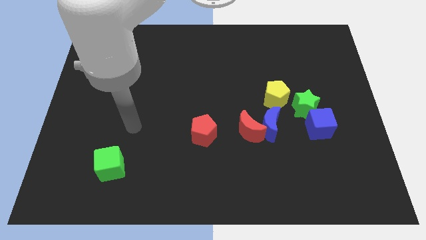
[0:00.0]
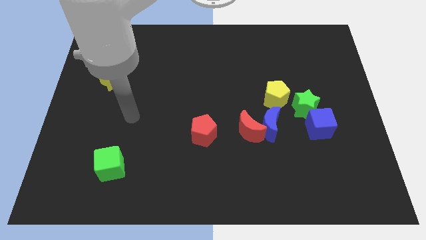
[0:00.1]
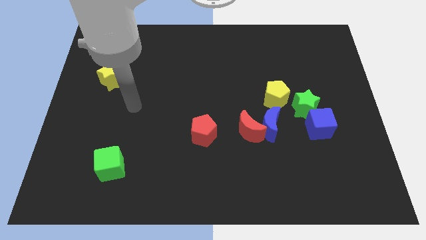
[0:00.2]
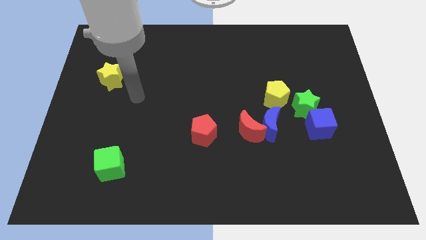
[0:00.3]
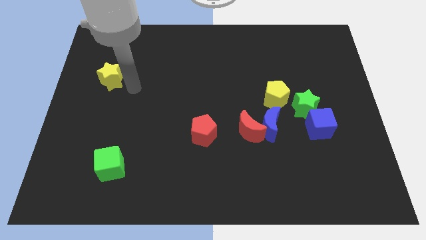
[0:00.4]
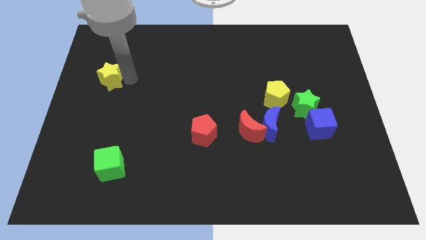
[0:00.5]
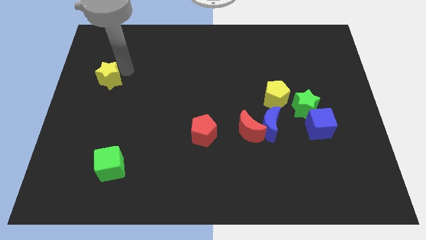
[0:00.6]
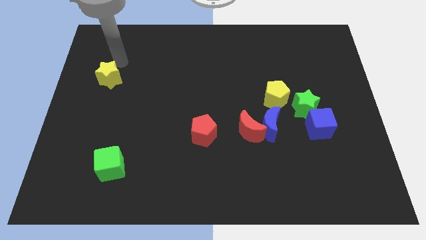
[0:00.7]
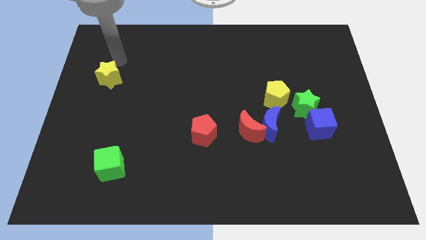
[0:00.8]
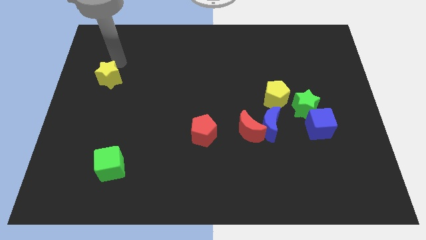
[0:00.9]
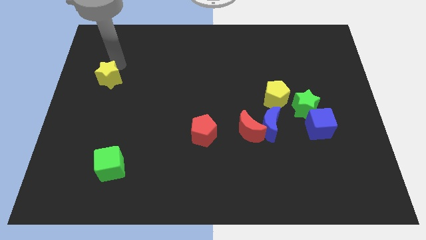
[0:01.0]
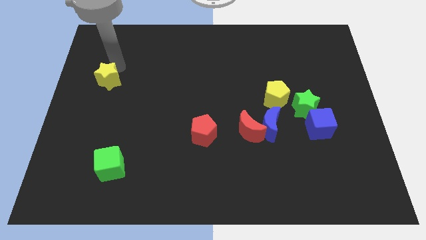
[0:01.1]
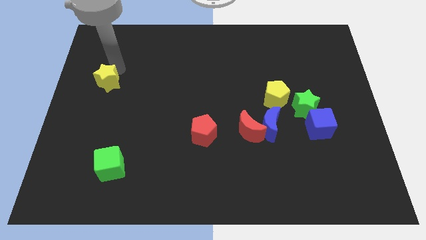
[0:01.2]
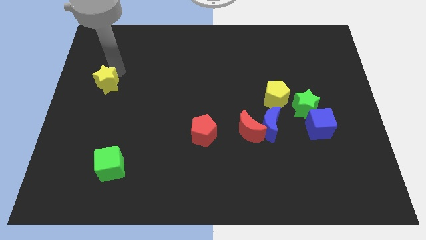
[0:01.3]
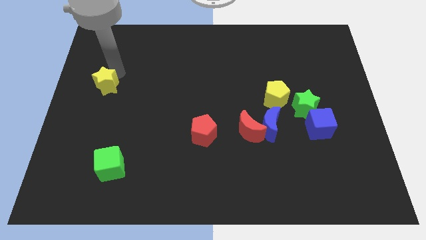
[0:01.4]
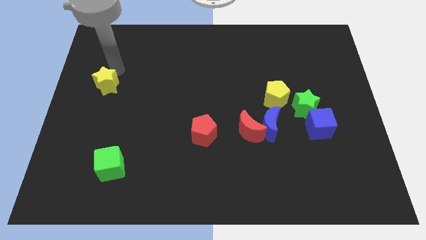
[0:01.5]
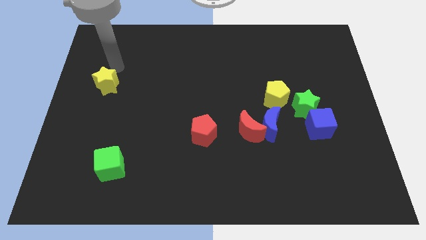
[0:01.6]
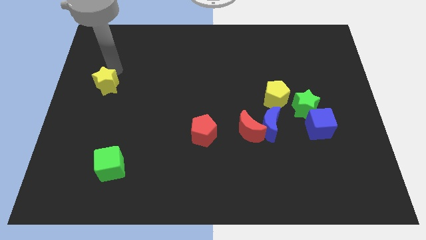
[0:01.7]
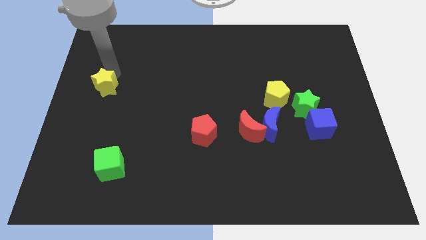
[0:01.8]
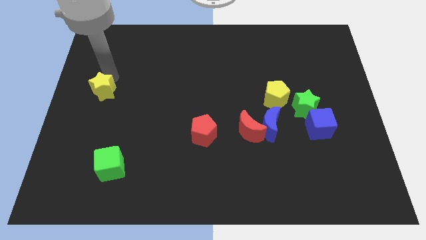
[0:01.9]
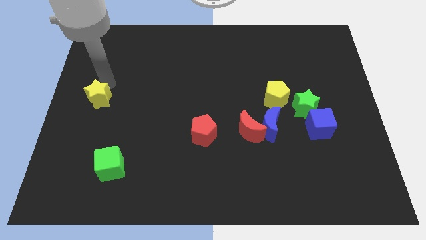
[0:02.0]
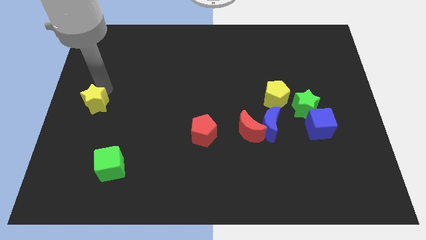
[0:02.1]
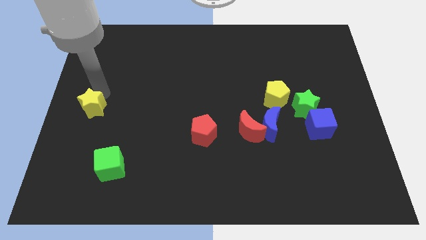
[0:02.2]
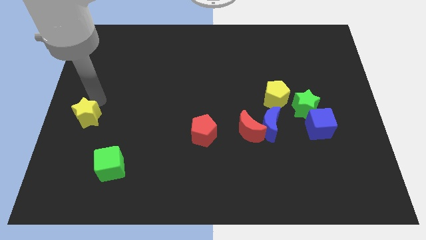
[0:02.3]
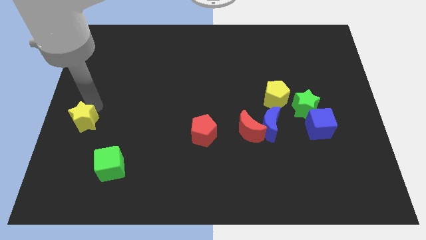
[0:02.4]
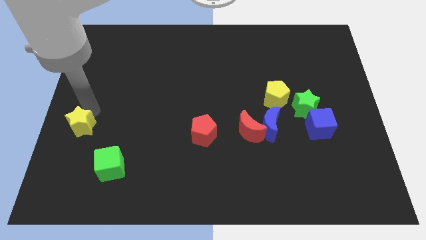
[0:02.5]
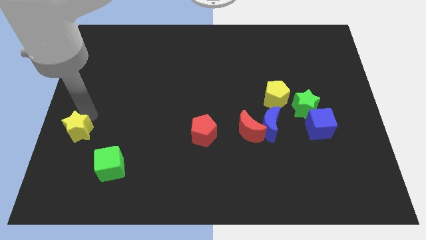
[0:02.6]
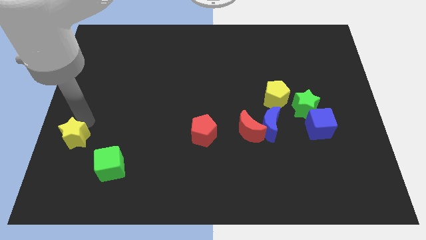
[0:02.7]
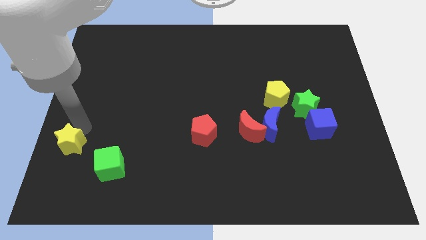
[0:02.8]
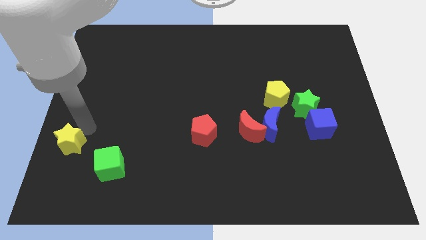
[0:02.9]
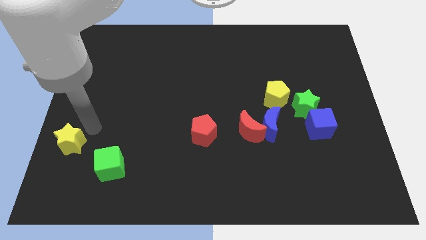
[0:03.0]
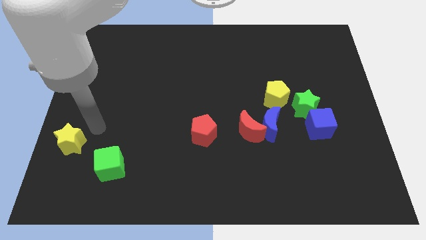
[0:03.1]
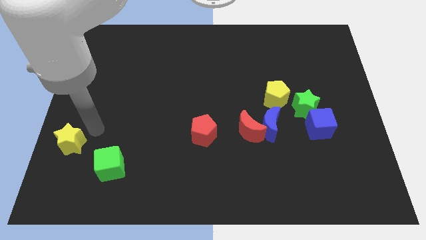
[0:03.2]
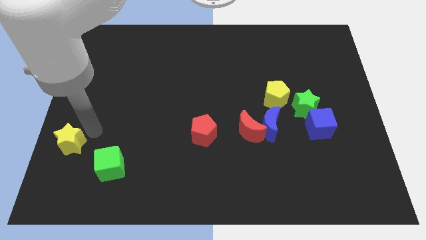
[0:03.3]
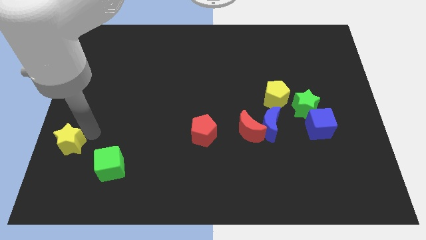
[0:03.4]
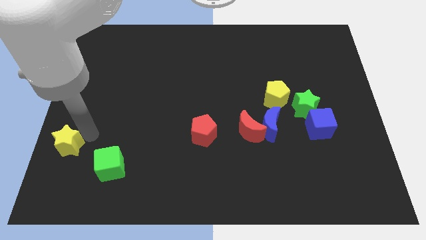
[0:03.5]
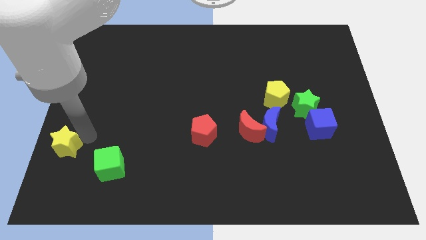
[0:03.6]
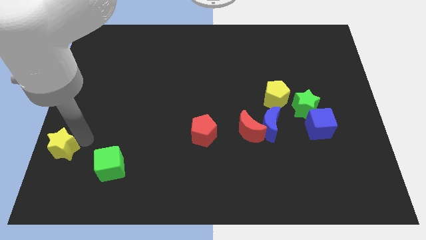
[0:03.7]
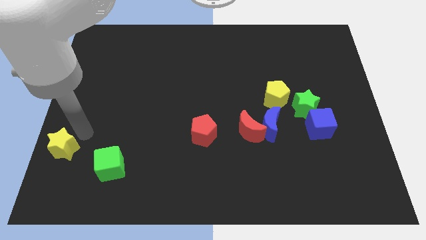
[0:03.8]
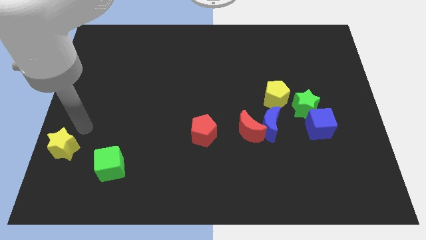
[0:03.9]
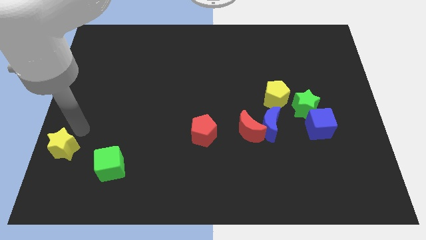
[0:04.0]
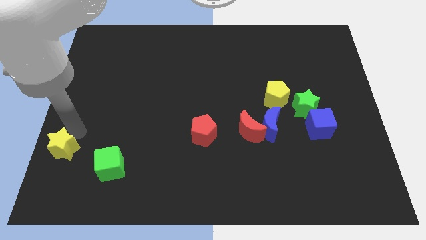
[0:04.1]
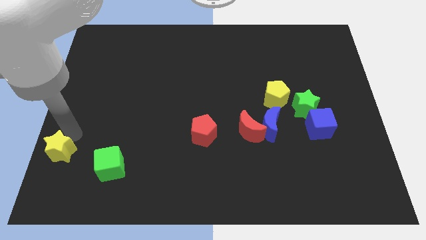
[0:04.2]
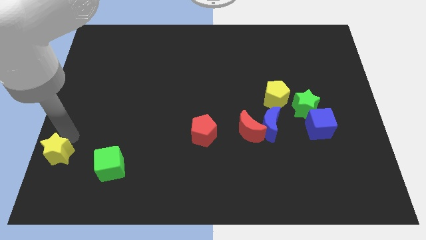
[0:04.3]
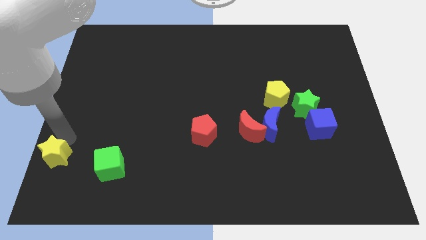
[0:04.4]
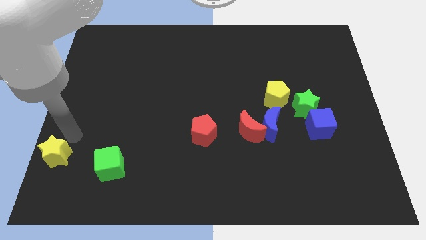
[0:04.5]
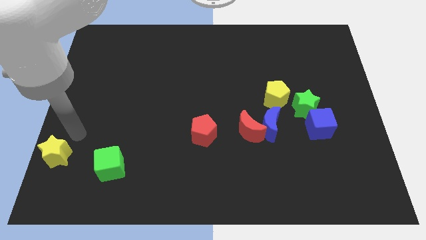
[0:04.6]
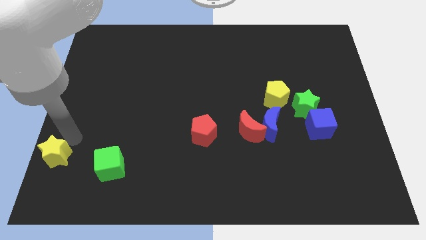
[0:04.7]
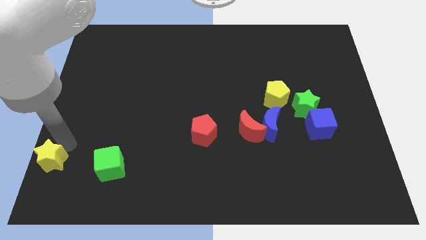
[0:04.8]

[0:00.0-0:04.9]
push the yellow star to the bottom left corner

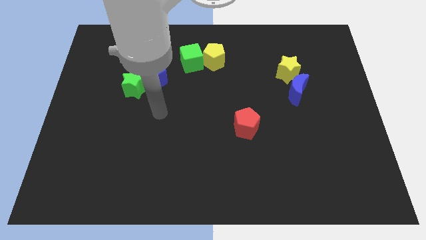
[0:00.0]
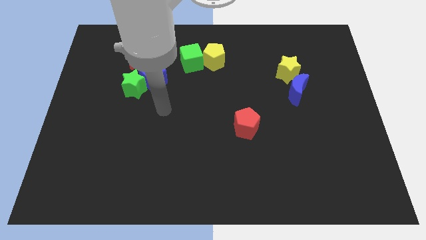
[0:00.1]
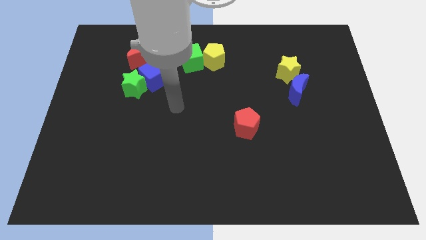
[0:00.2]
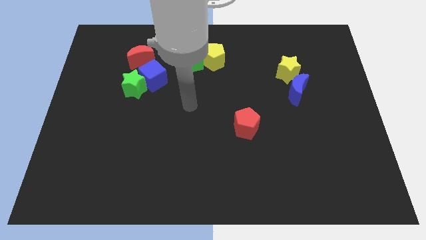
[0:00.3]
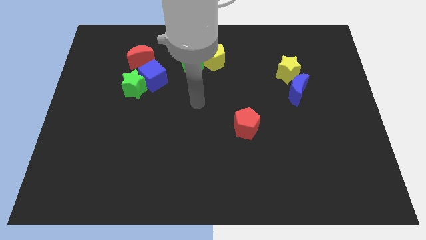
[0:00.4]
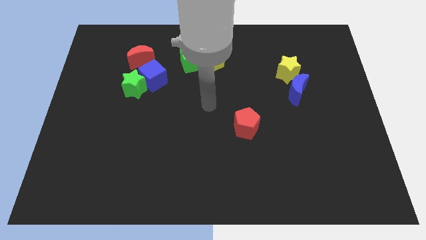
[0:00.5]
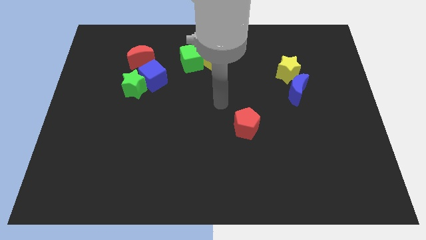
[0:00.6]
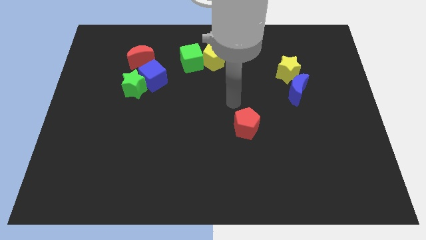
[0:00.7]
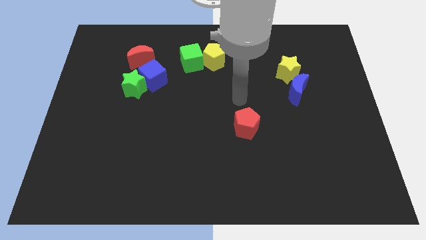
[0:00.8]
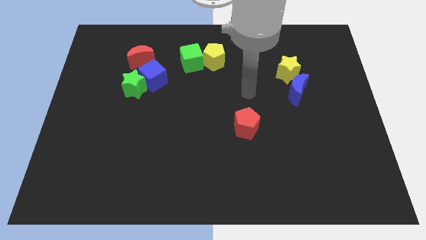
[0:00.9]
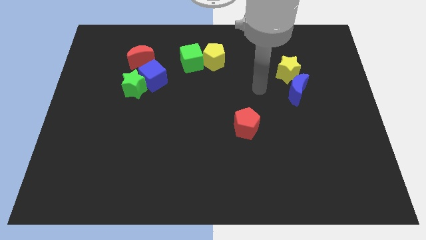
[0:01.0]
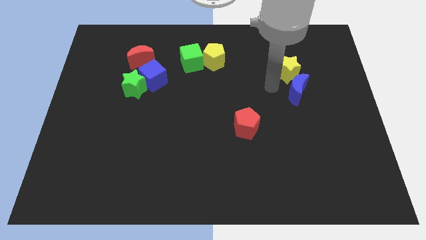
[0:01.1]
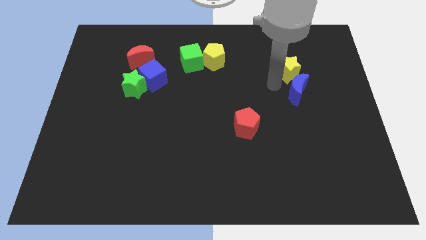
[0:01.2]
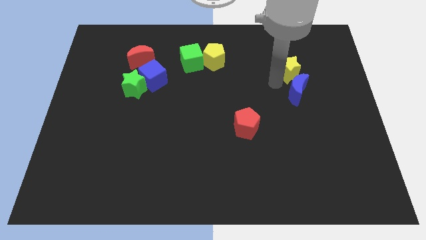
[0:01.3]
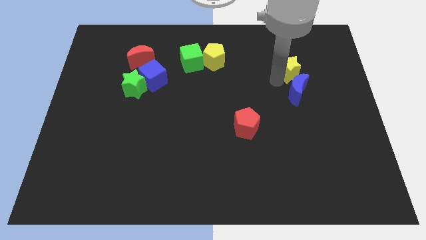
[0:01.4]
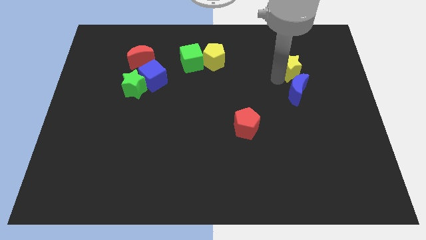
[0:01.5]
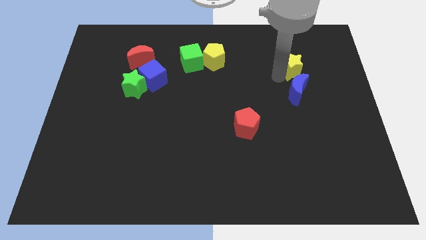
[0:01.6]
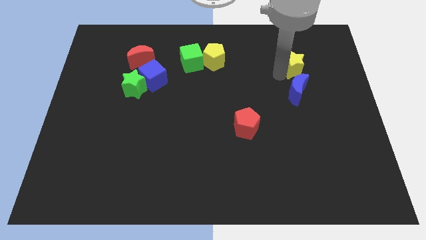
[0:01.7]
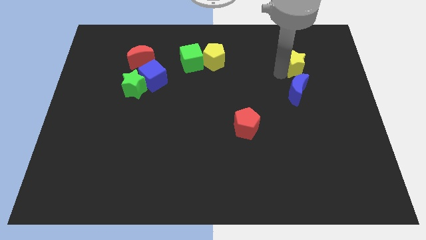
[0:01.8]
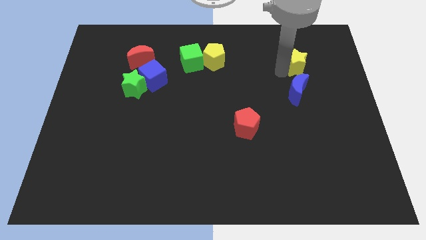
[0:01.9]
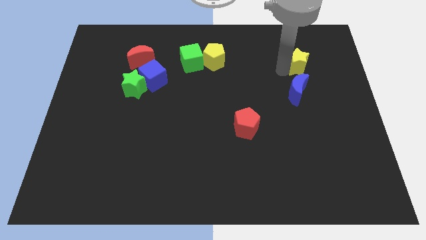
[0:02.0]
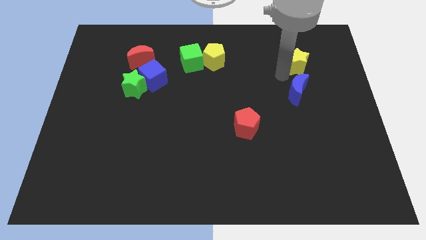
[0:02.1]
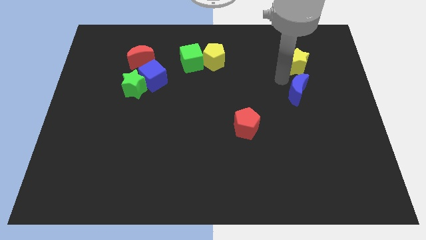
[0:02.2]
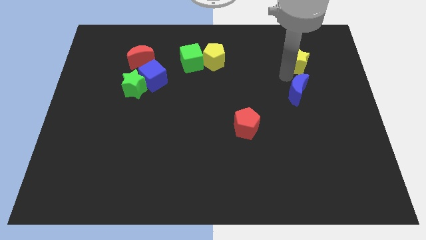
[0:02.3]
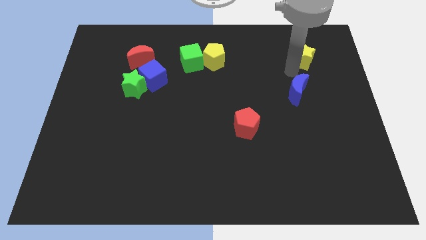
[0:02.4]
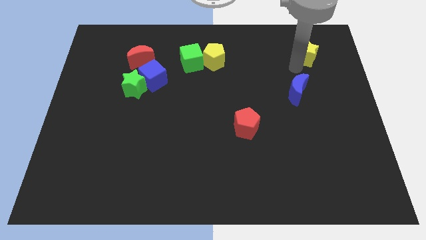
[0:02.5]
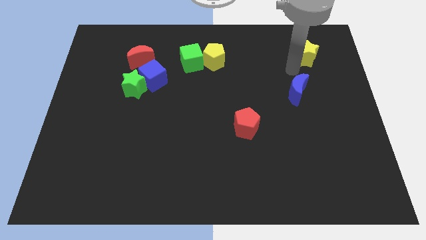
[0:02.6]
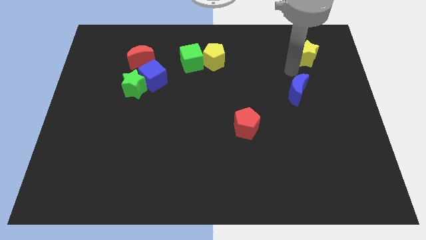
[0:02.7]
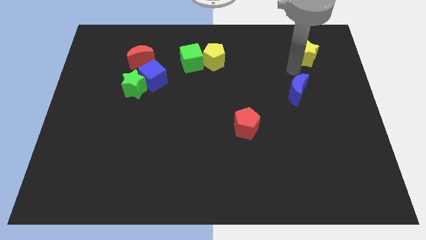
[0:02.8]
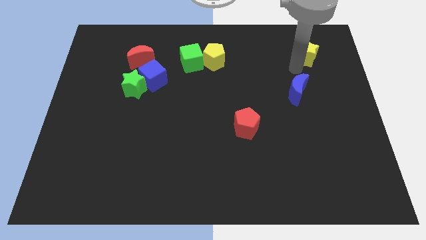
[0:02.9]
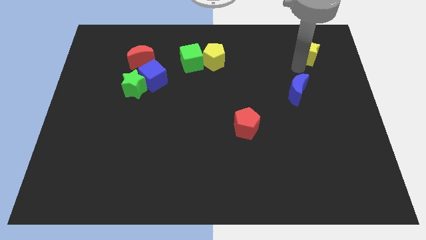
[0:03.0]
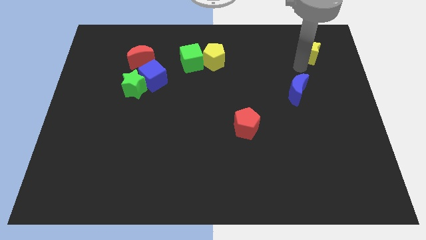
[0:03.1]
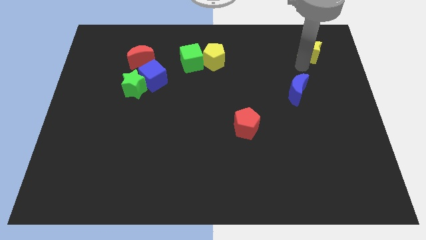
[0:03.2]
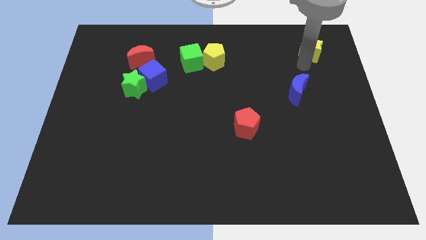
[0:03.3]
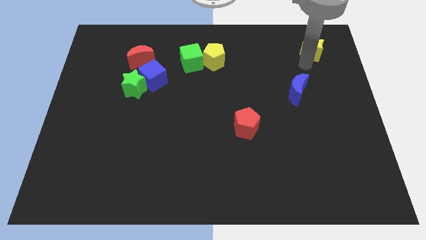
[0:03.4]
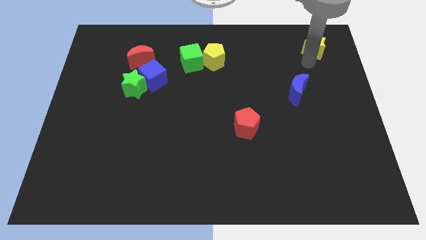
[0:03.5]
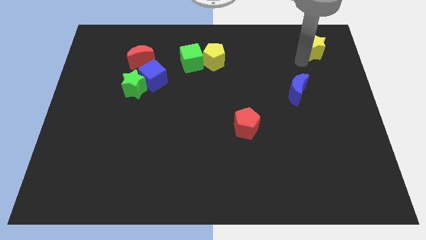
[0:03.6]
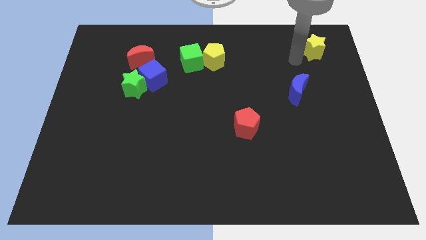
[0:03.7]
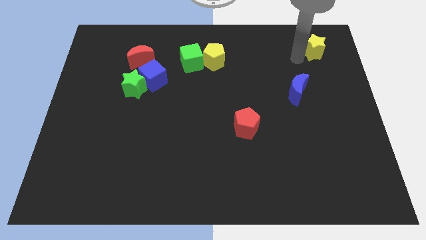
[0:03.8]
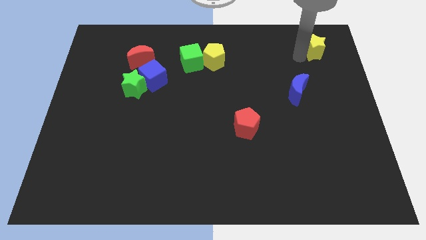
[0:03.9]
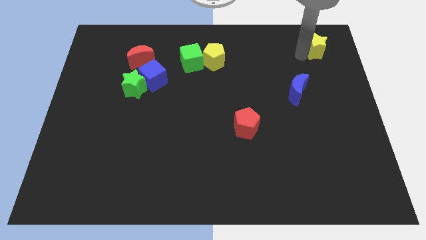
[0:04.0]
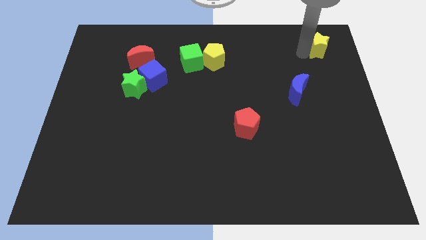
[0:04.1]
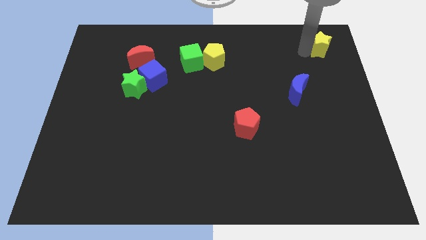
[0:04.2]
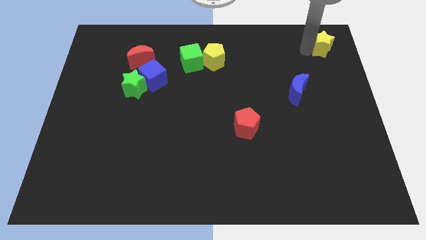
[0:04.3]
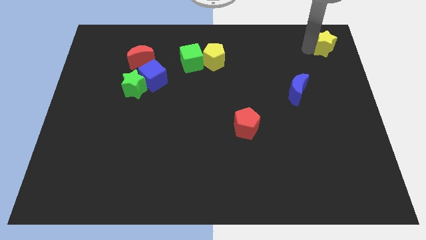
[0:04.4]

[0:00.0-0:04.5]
slide the yellow star to the upper right corner
